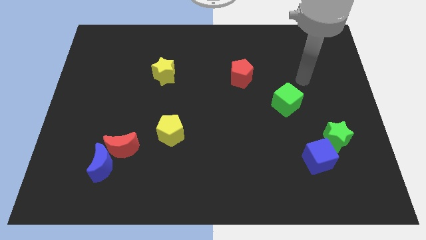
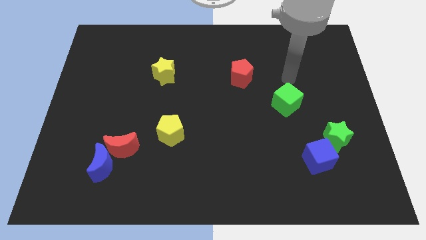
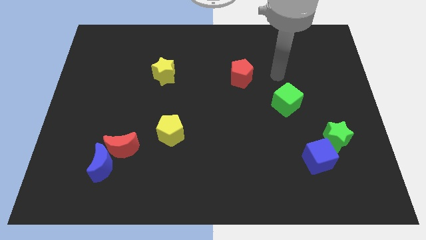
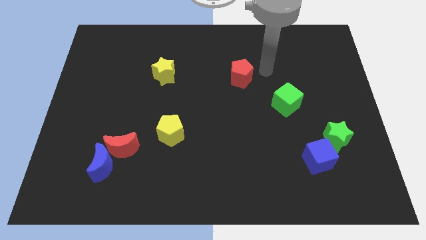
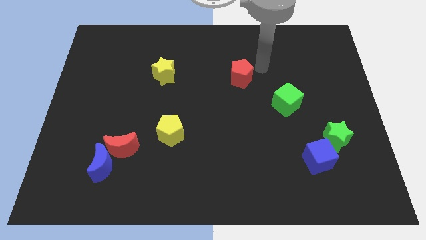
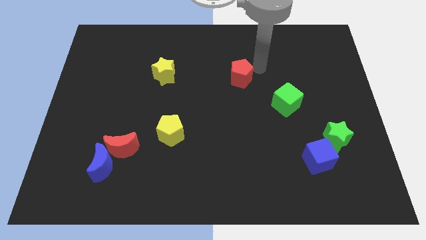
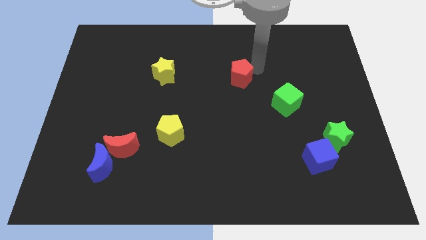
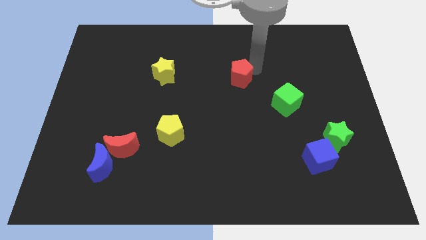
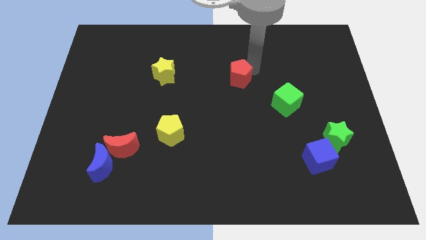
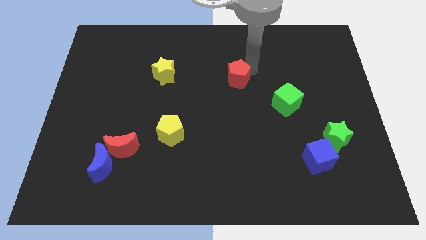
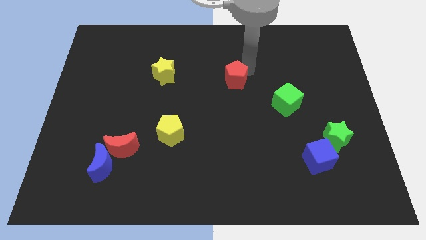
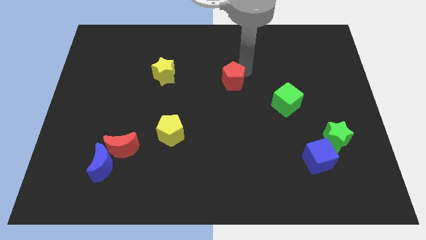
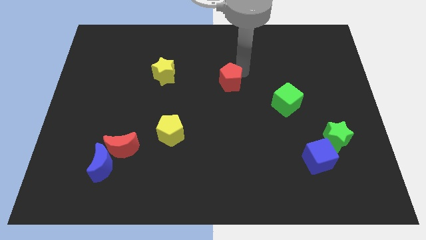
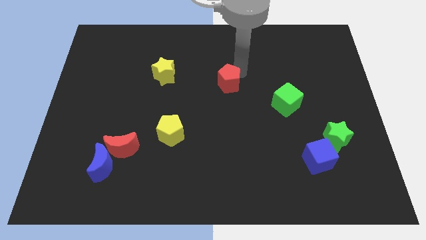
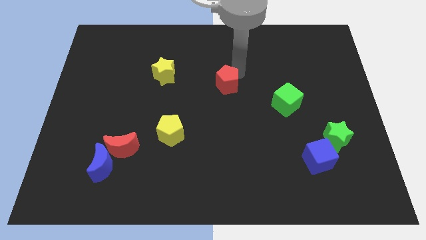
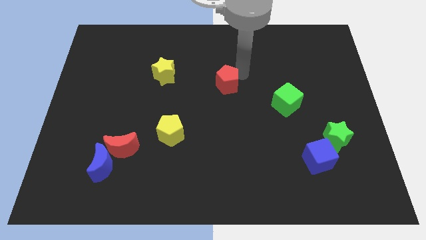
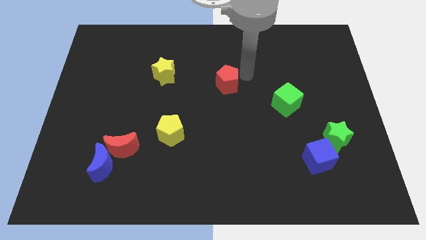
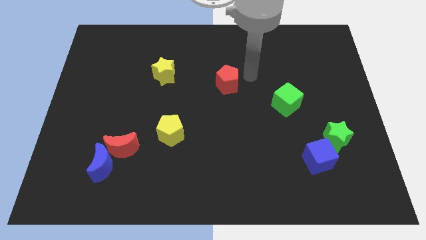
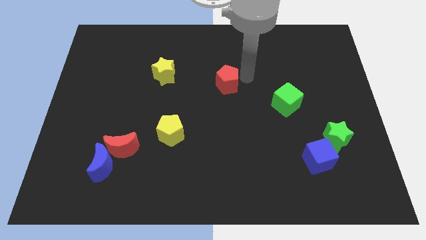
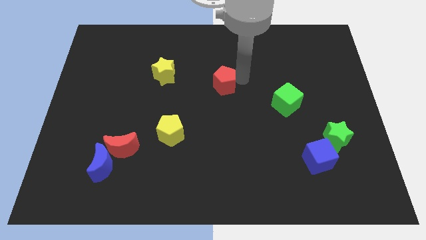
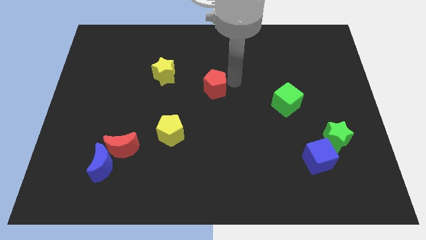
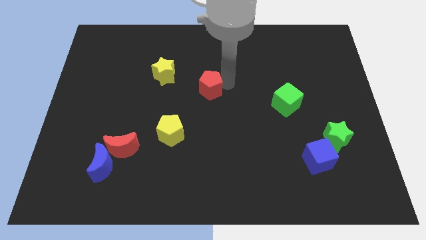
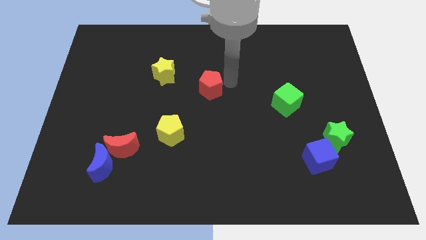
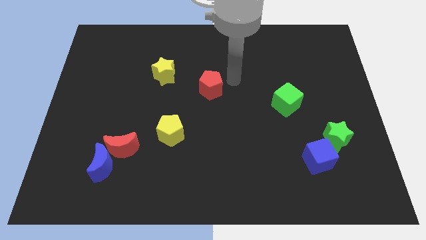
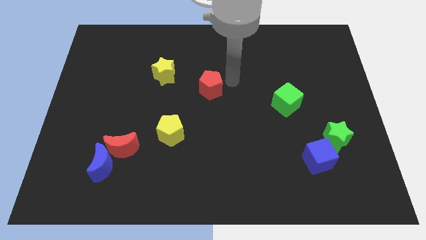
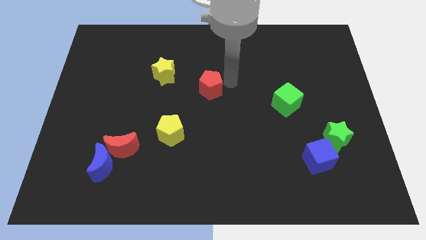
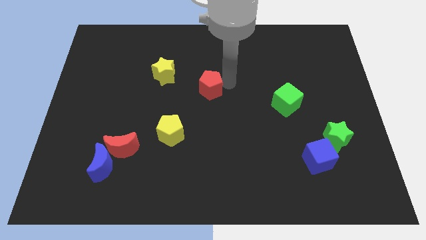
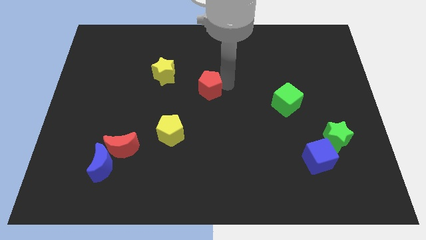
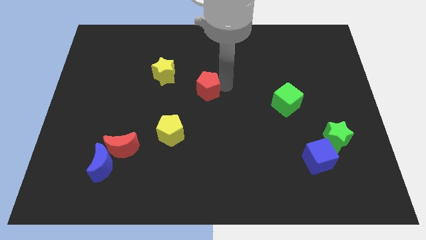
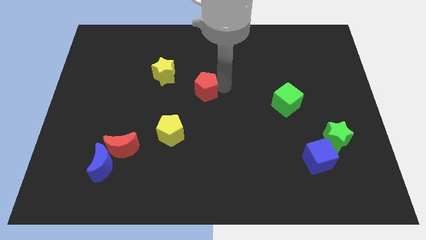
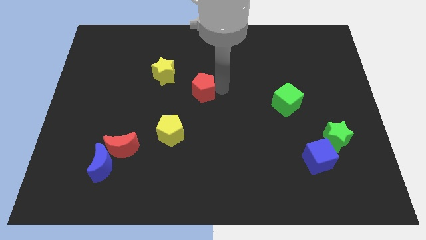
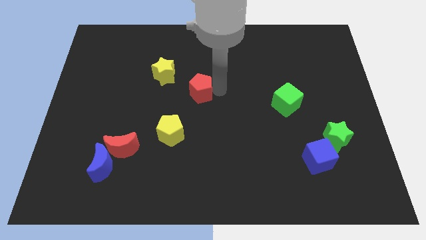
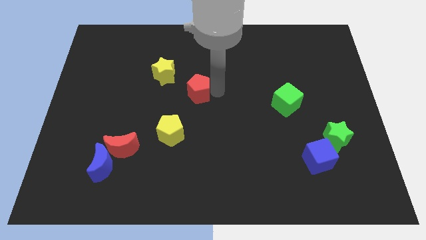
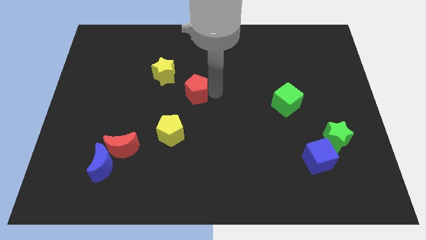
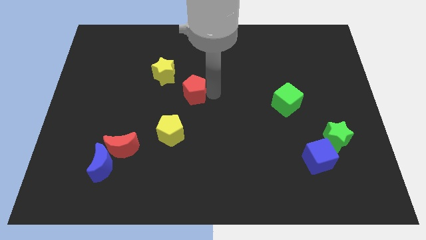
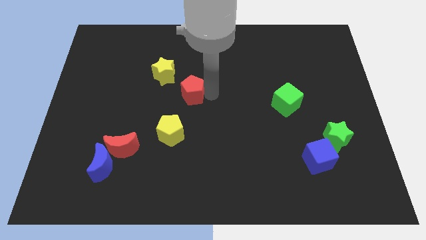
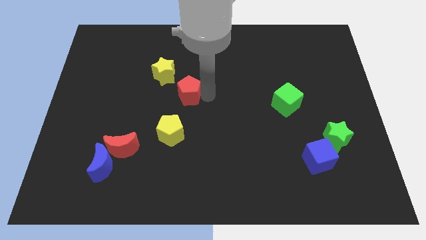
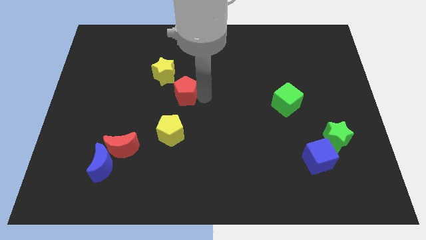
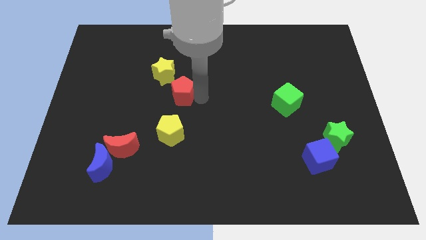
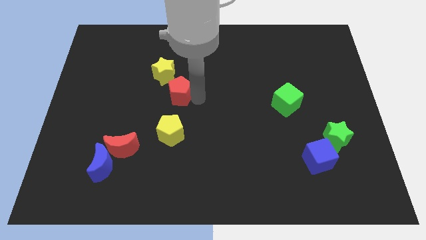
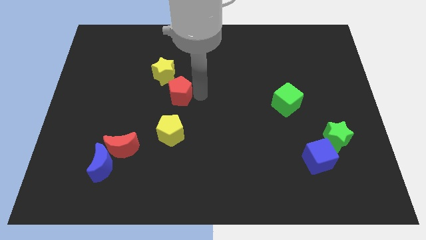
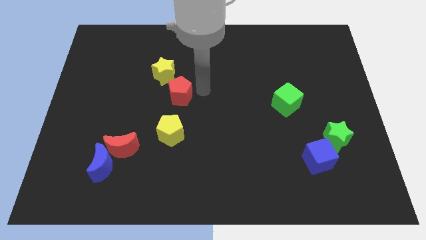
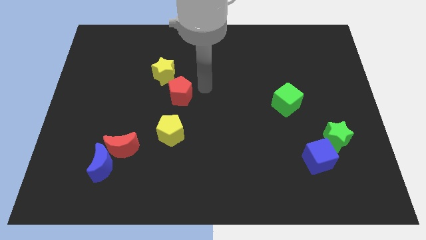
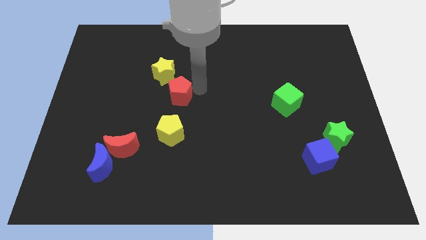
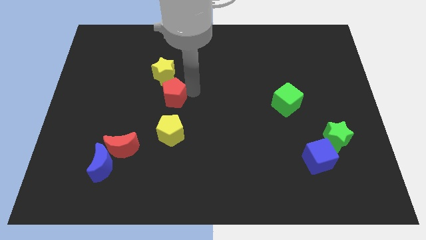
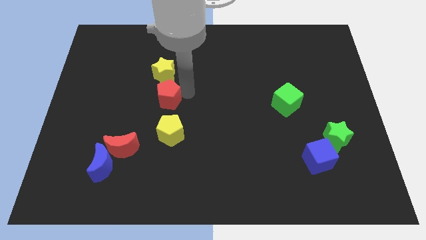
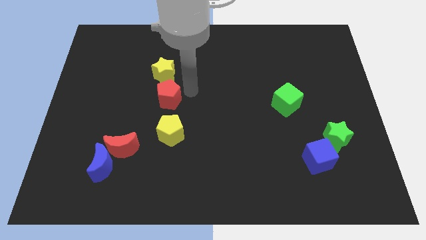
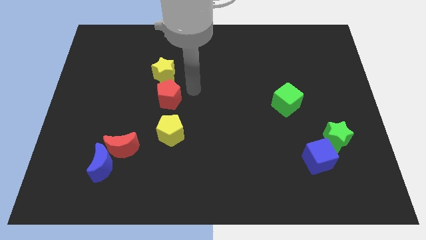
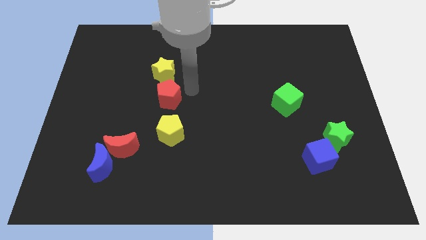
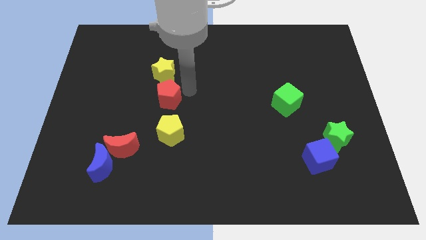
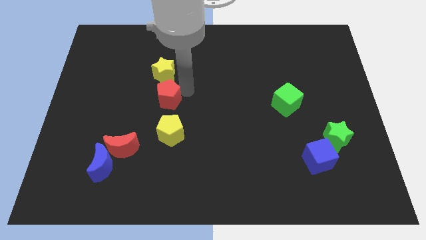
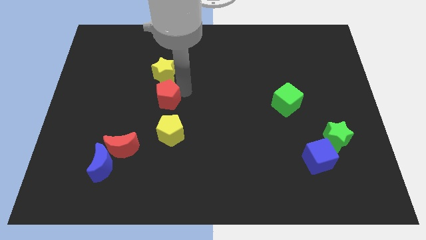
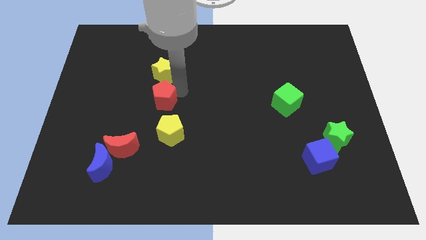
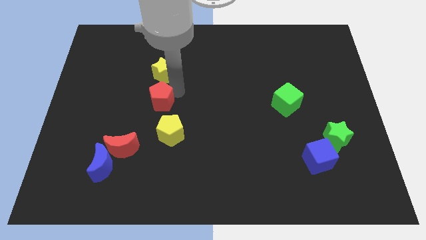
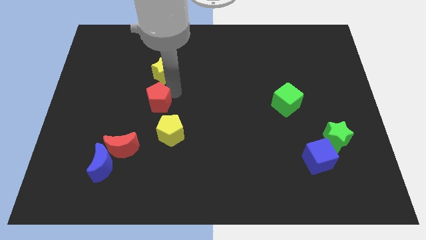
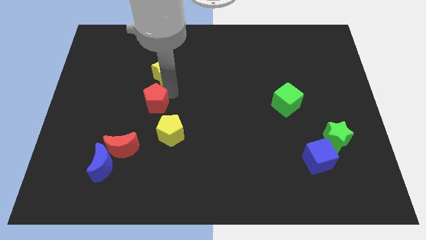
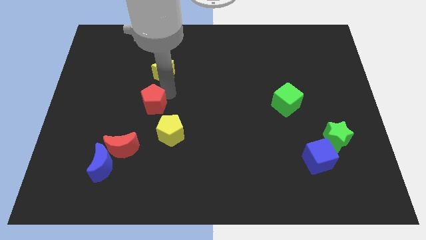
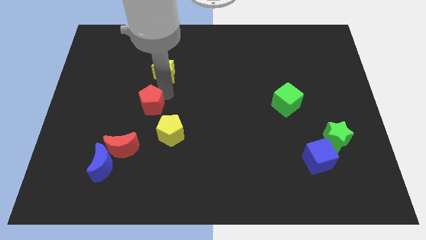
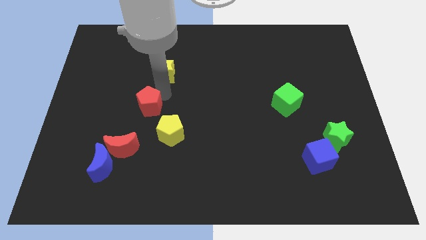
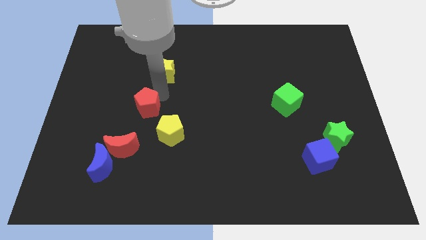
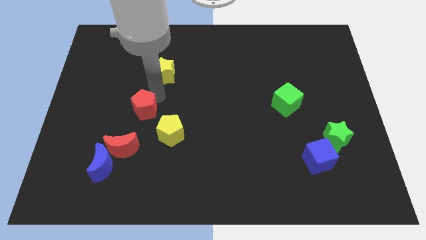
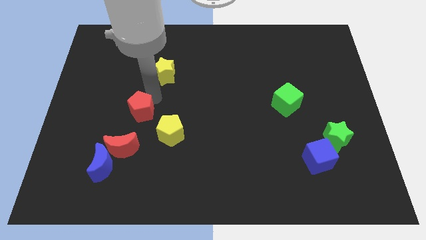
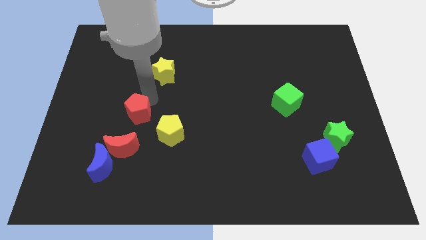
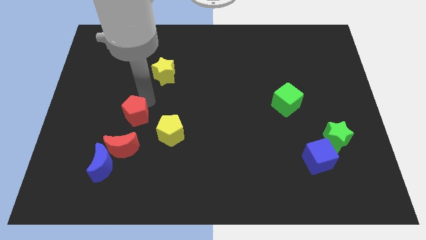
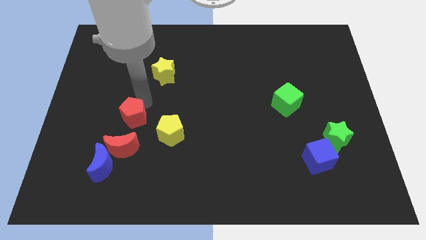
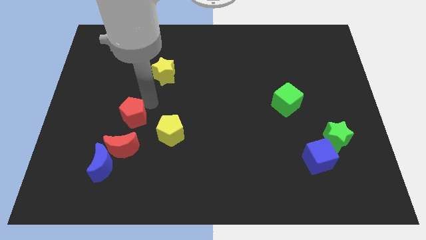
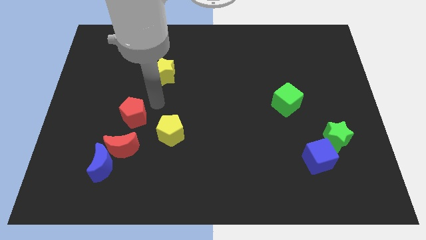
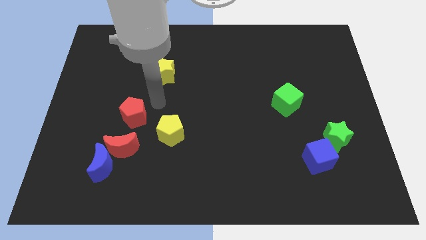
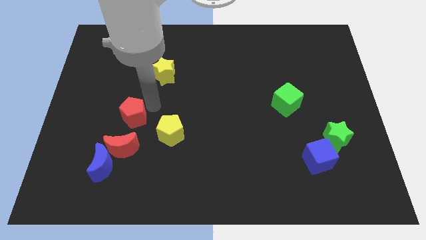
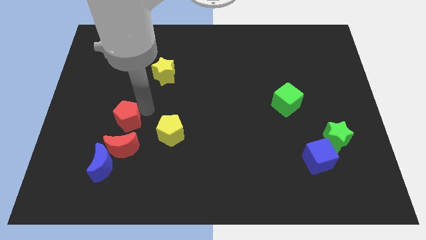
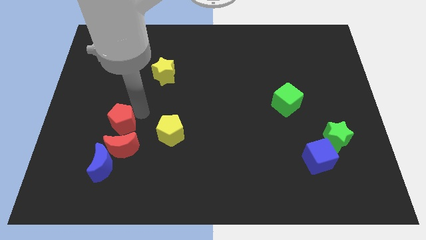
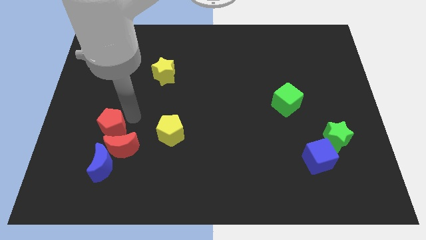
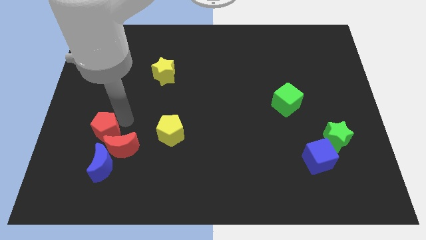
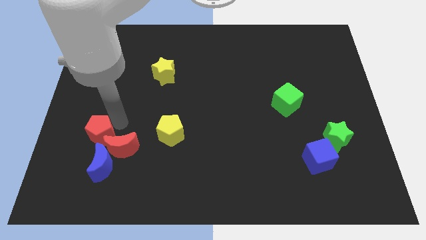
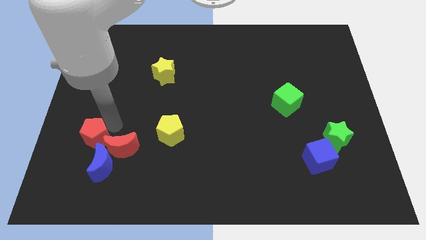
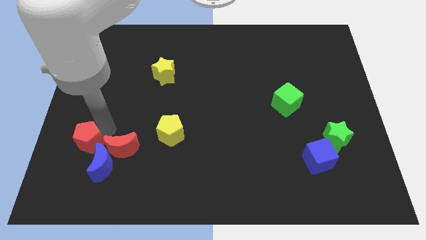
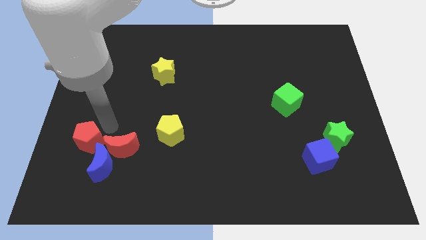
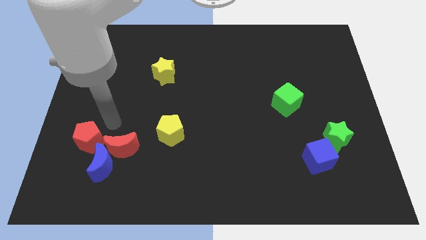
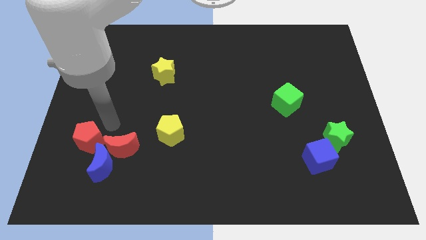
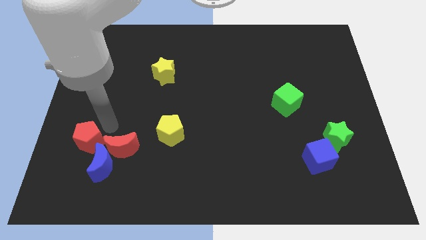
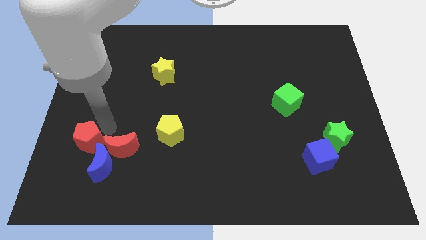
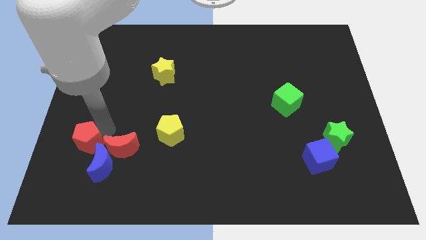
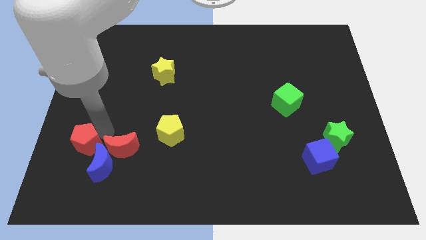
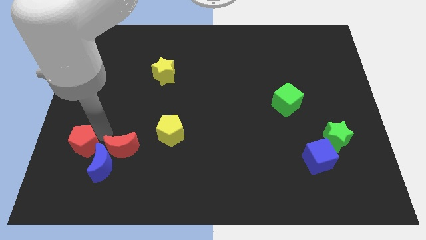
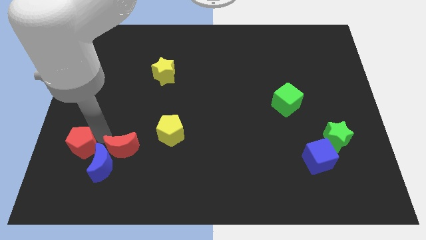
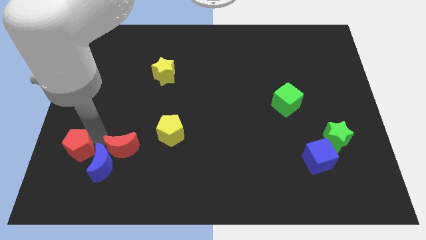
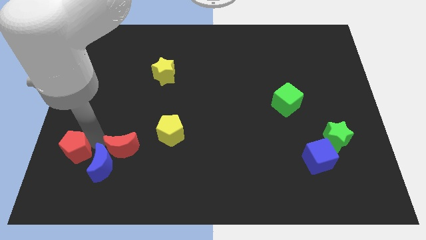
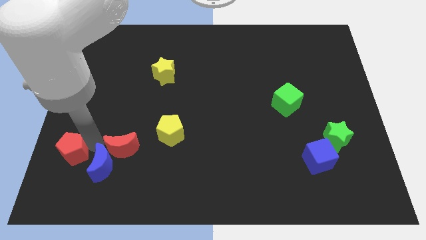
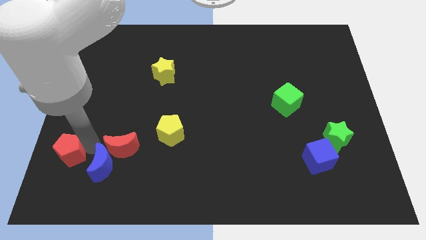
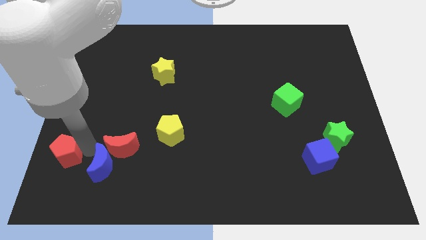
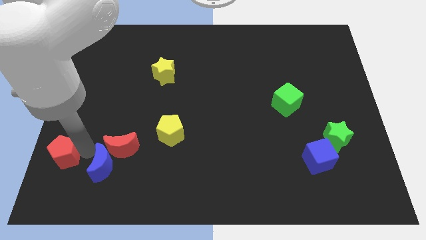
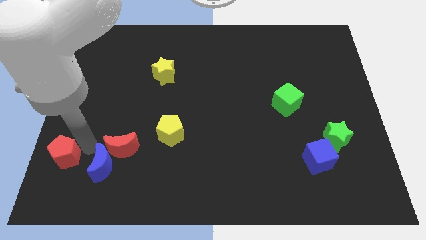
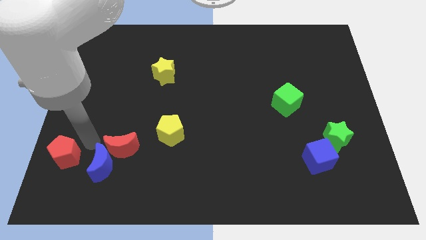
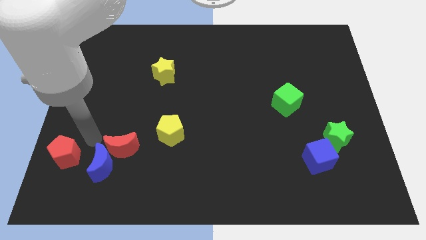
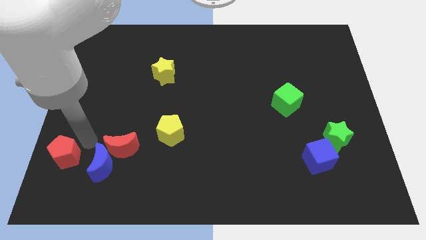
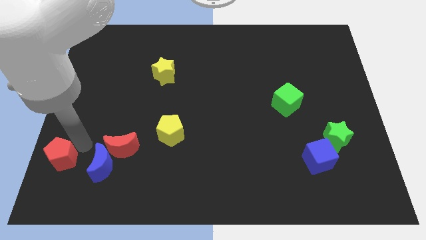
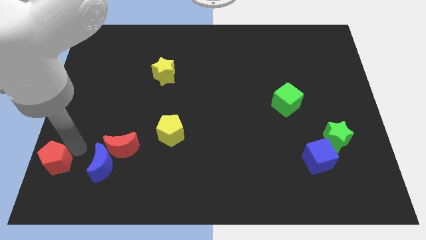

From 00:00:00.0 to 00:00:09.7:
put the red pentagon to the bottom left
